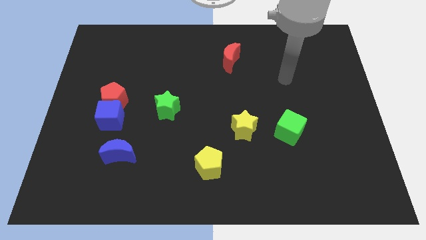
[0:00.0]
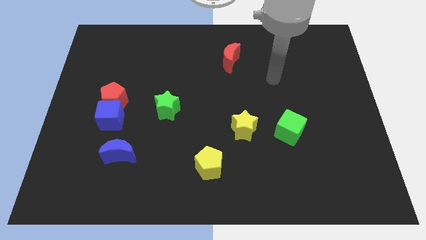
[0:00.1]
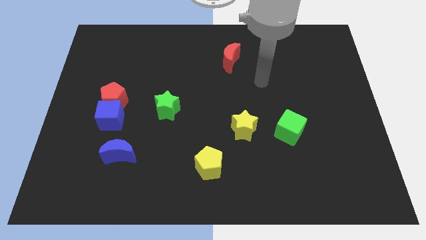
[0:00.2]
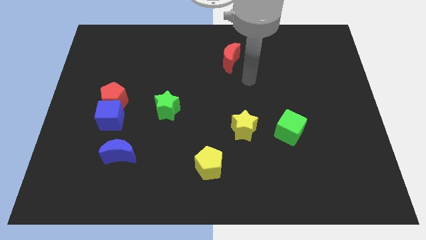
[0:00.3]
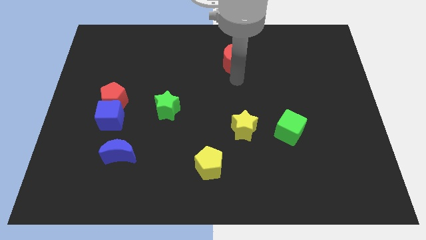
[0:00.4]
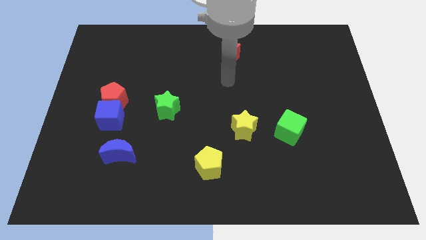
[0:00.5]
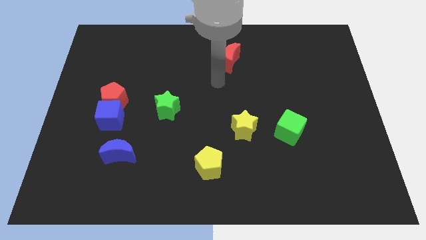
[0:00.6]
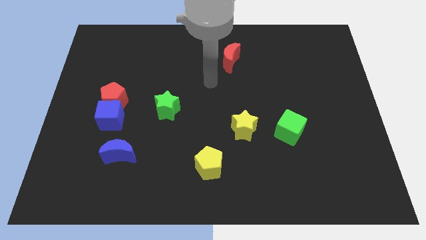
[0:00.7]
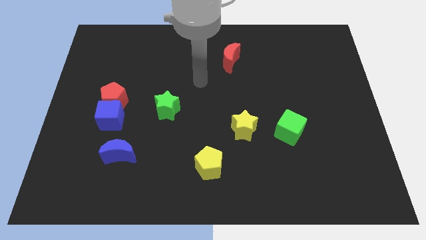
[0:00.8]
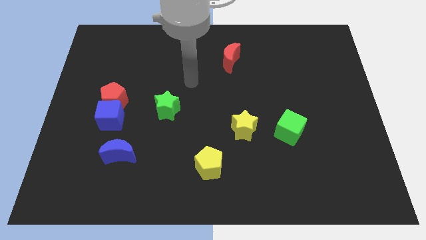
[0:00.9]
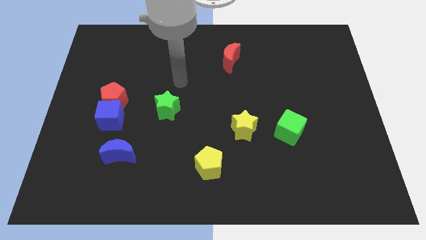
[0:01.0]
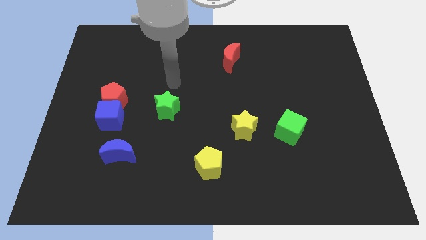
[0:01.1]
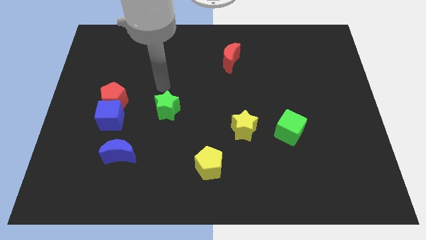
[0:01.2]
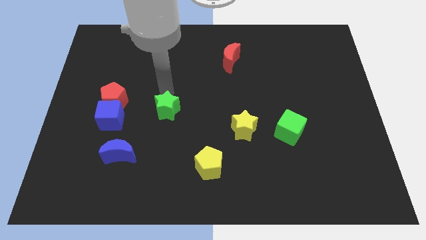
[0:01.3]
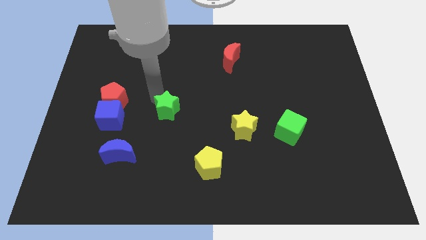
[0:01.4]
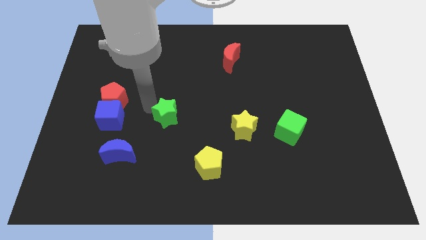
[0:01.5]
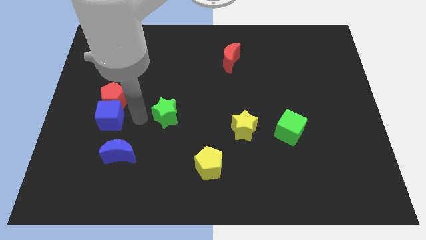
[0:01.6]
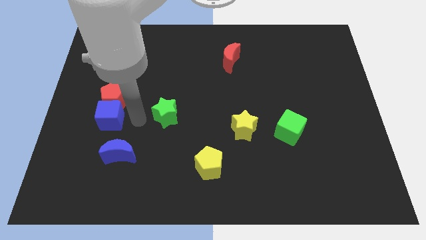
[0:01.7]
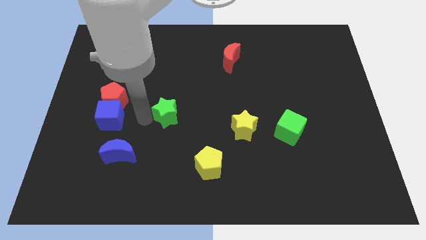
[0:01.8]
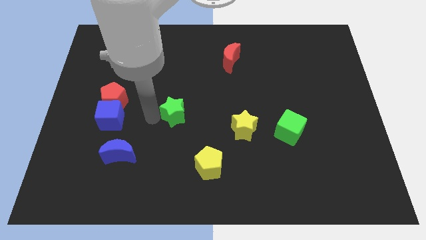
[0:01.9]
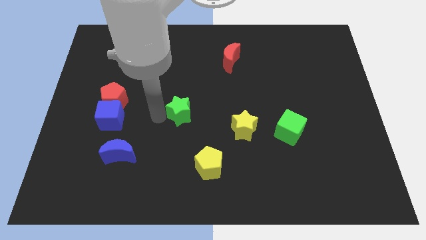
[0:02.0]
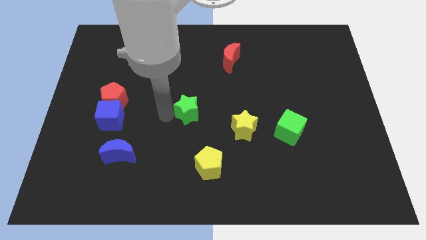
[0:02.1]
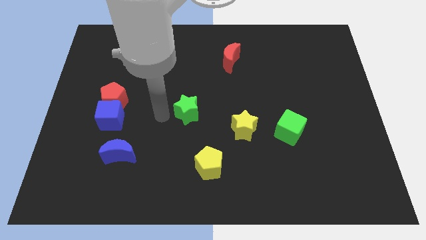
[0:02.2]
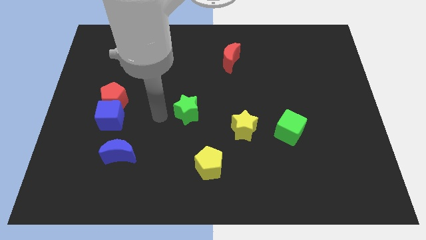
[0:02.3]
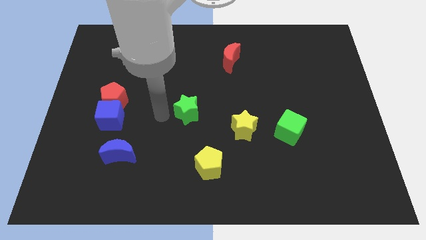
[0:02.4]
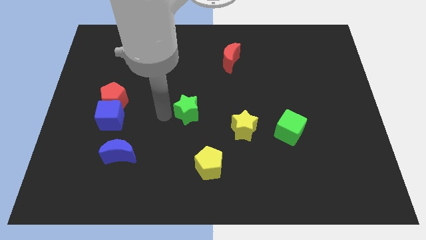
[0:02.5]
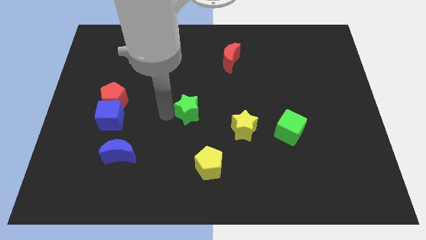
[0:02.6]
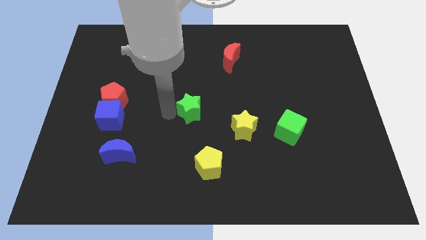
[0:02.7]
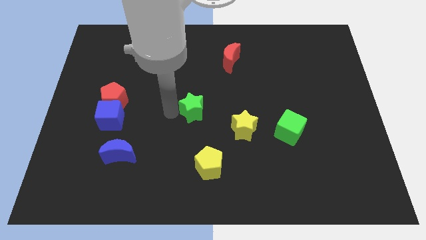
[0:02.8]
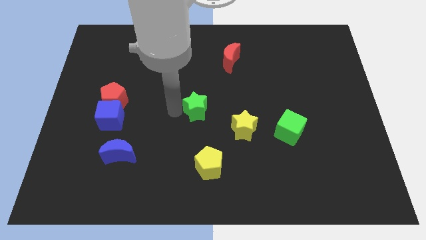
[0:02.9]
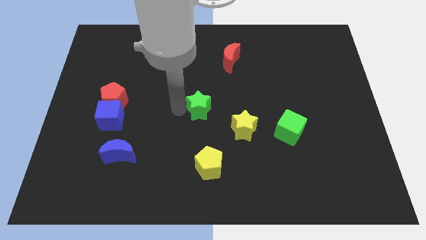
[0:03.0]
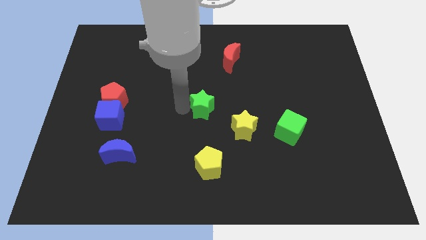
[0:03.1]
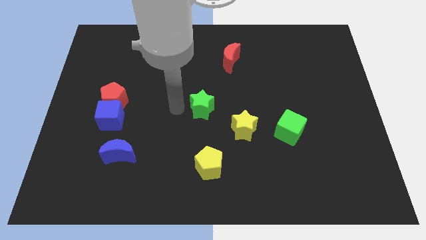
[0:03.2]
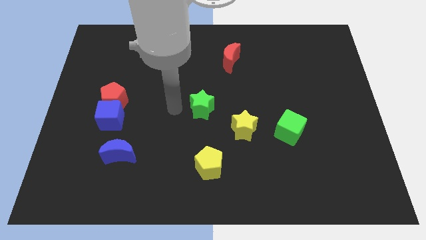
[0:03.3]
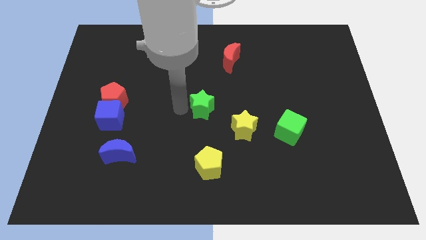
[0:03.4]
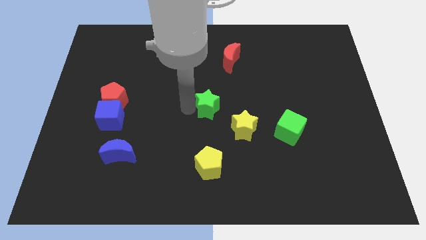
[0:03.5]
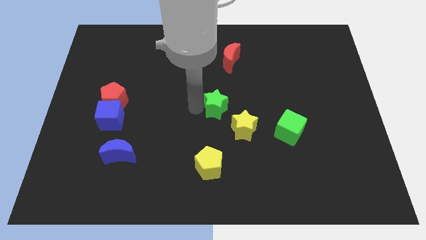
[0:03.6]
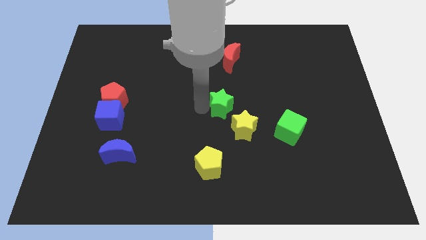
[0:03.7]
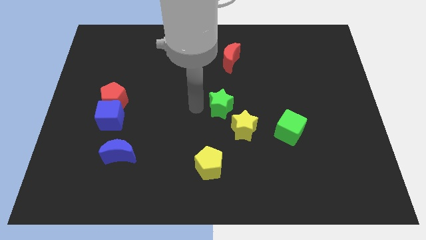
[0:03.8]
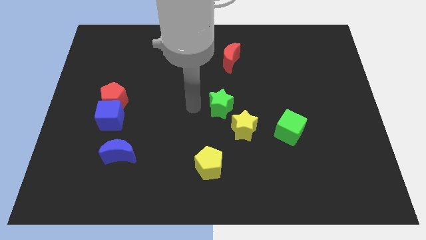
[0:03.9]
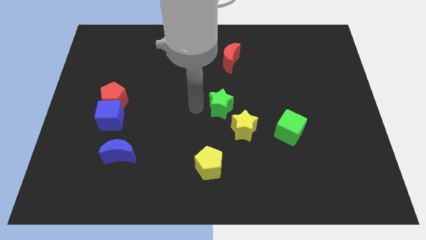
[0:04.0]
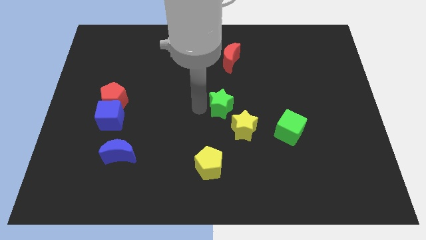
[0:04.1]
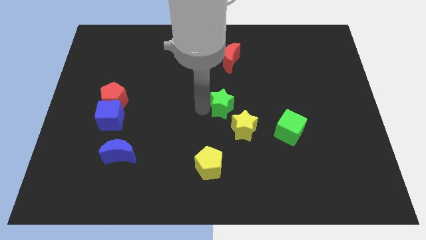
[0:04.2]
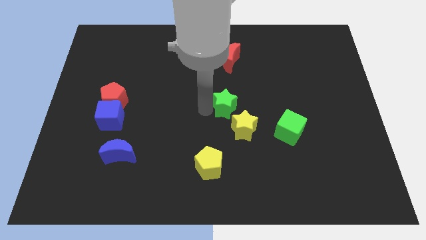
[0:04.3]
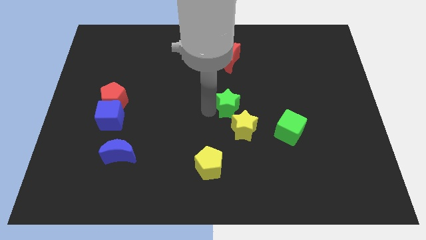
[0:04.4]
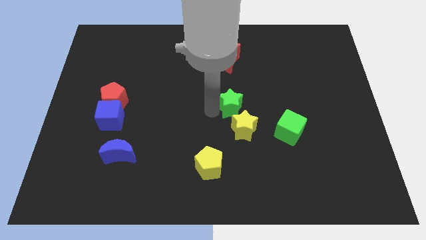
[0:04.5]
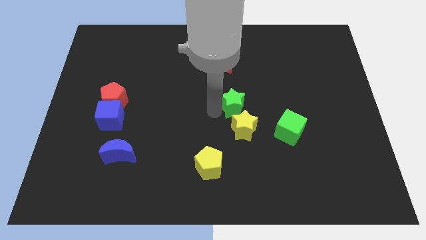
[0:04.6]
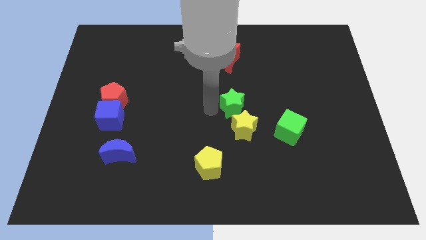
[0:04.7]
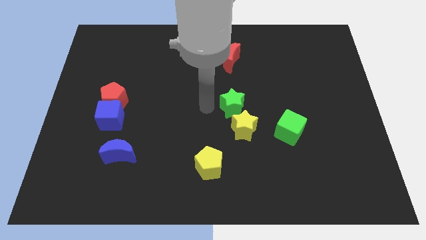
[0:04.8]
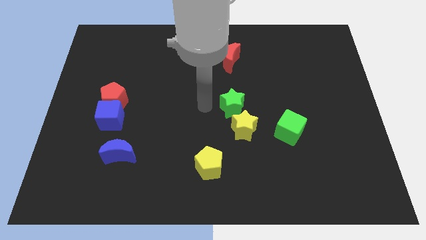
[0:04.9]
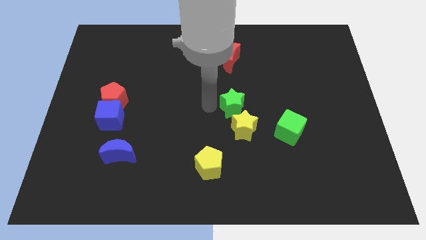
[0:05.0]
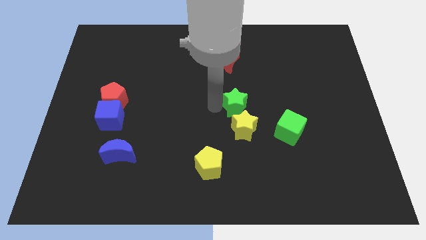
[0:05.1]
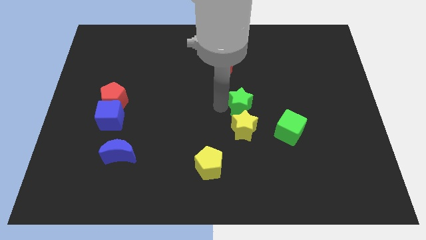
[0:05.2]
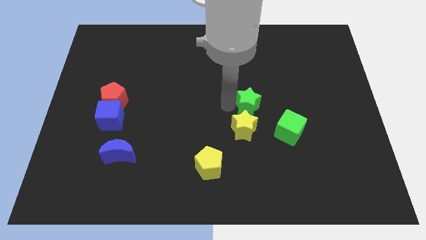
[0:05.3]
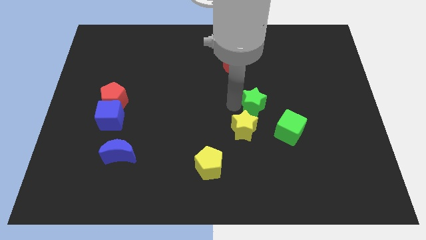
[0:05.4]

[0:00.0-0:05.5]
slide the green star to the right

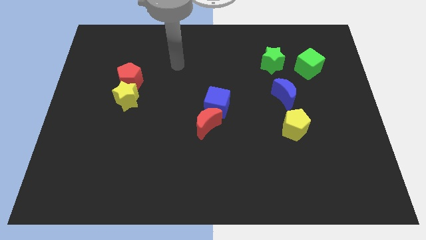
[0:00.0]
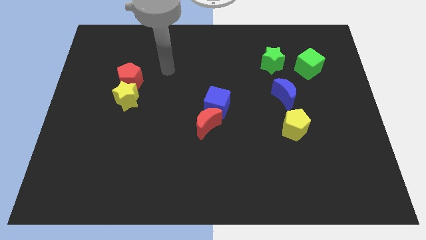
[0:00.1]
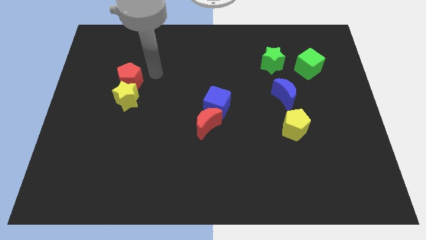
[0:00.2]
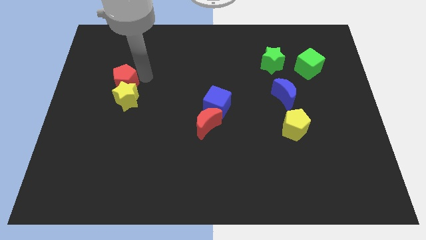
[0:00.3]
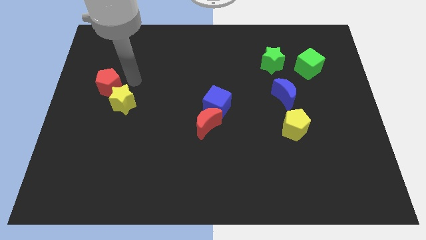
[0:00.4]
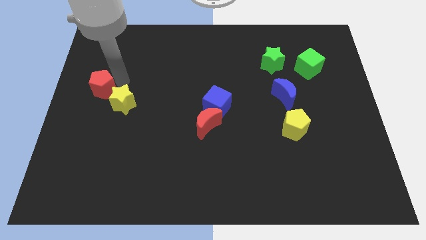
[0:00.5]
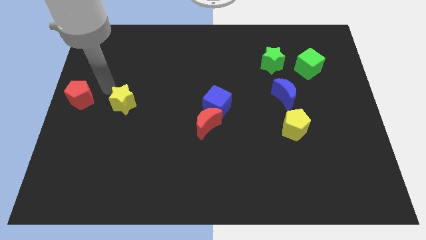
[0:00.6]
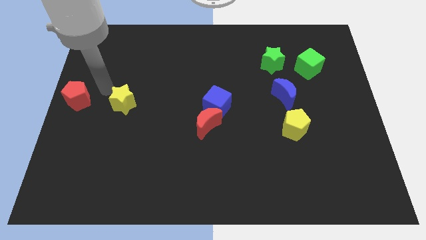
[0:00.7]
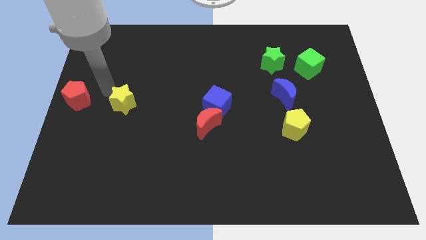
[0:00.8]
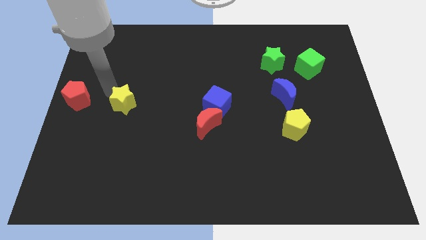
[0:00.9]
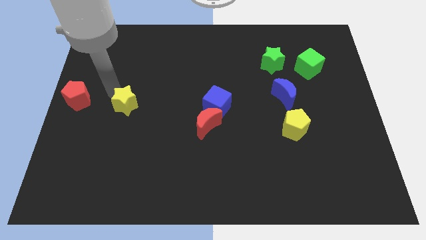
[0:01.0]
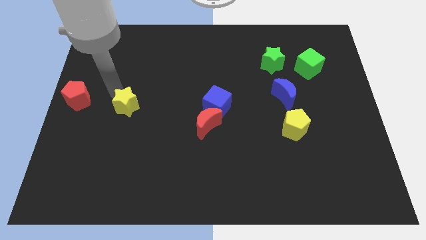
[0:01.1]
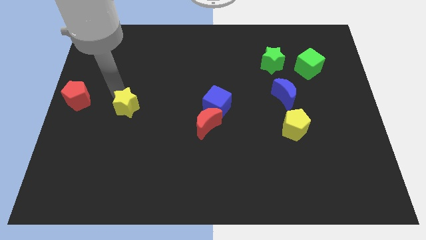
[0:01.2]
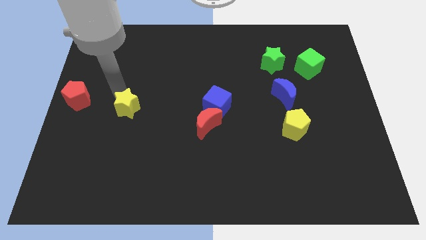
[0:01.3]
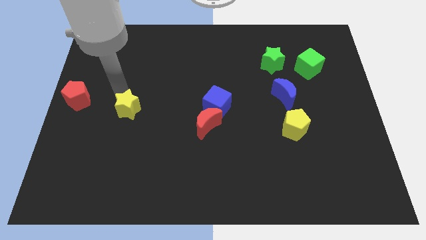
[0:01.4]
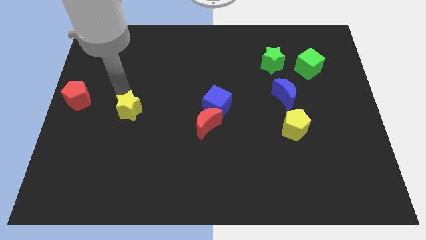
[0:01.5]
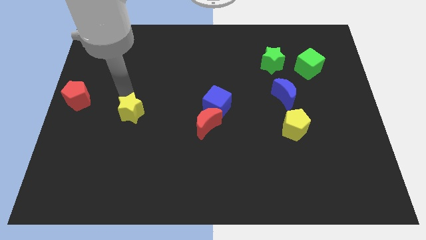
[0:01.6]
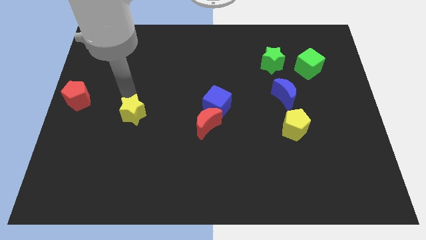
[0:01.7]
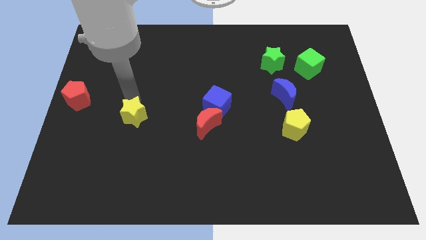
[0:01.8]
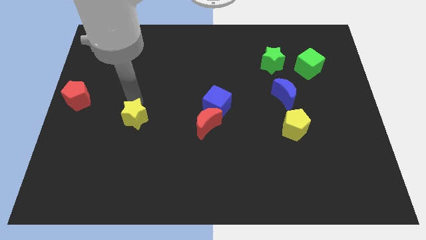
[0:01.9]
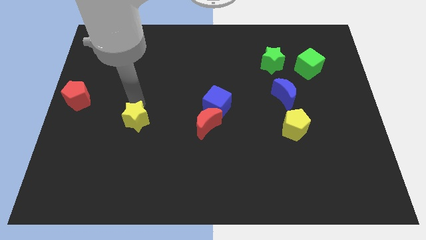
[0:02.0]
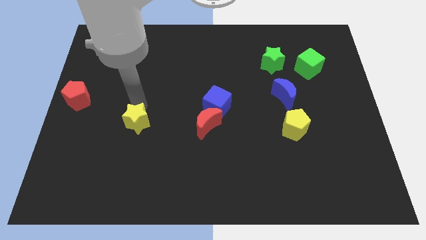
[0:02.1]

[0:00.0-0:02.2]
move the yellow star a bit down and right

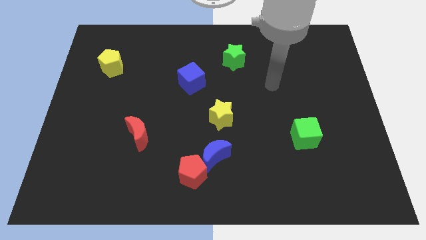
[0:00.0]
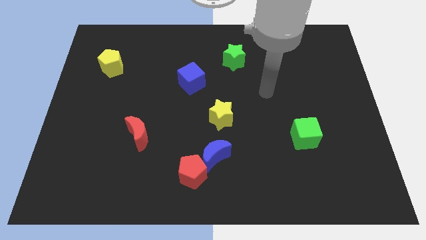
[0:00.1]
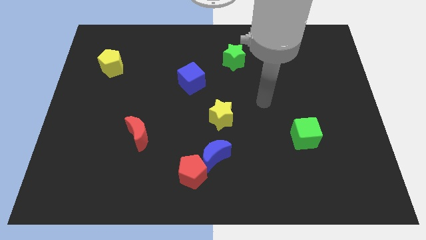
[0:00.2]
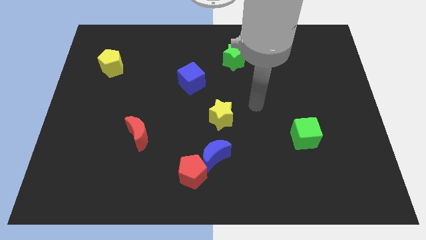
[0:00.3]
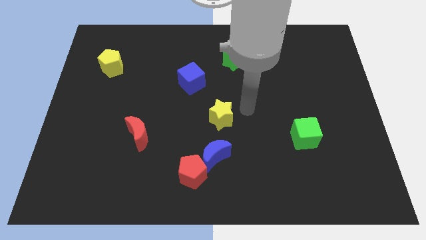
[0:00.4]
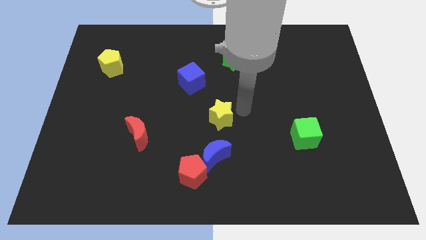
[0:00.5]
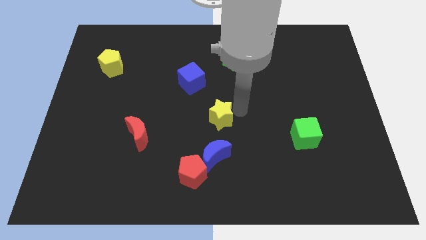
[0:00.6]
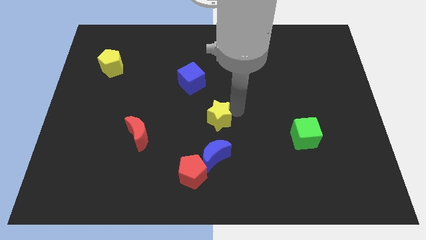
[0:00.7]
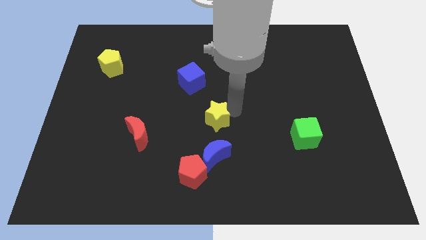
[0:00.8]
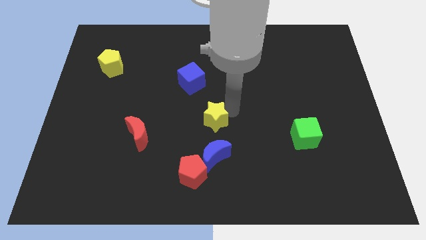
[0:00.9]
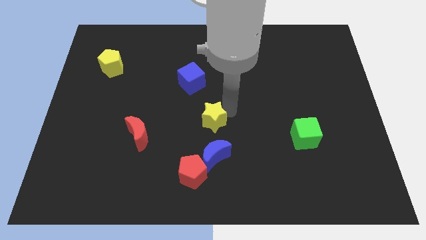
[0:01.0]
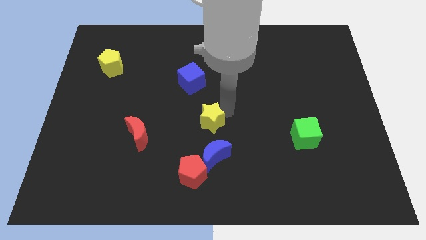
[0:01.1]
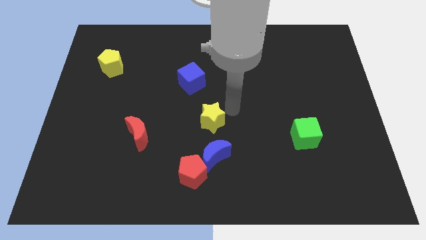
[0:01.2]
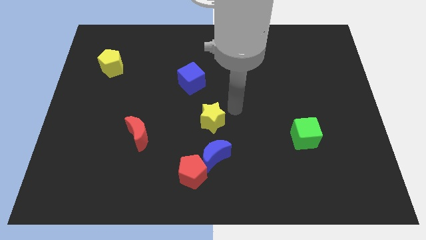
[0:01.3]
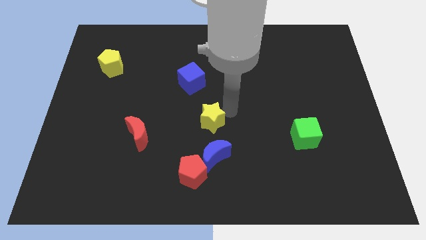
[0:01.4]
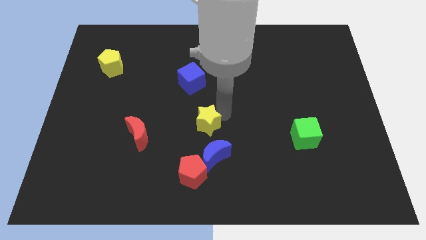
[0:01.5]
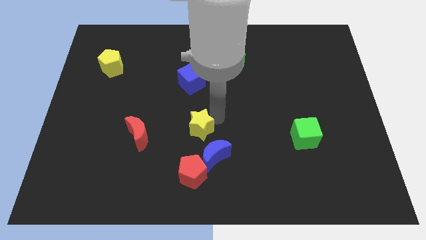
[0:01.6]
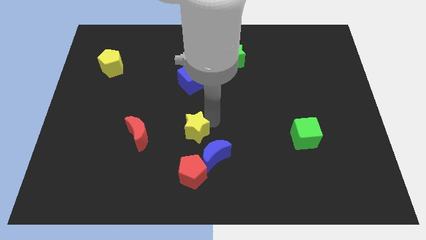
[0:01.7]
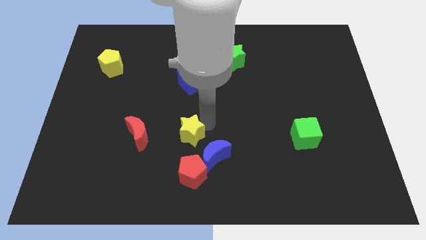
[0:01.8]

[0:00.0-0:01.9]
slightly slide the yellow star downwards and left
